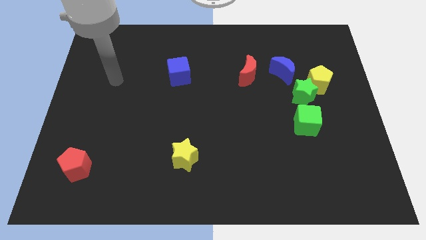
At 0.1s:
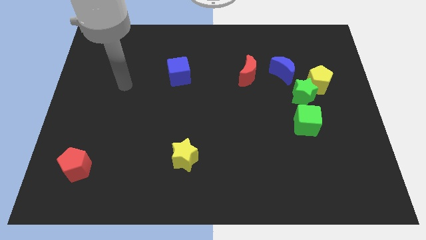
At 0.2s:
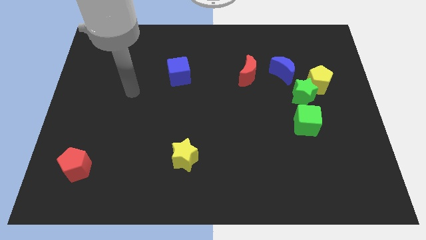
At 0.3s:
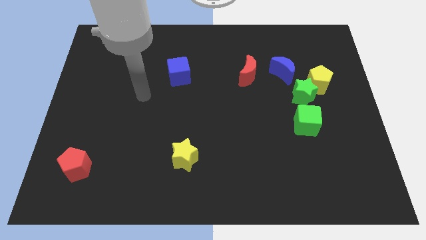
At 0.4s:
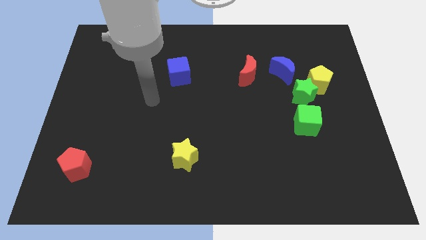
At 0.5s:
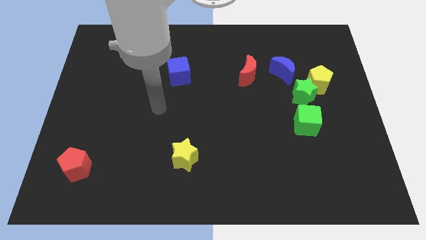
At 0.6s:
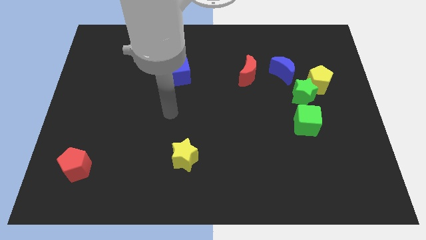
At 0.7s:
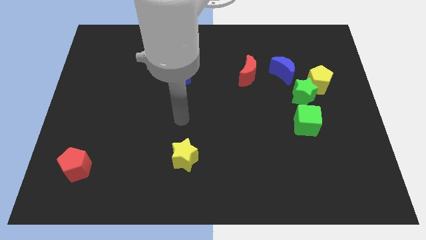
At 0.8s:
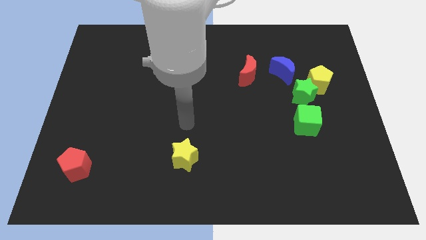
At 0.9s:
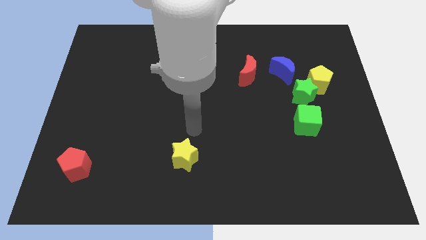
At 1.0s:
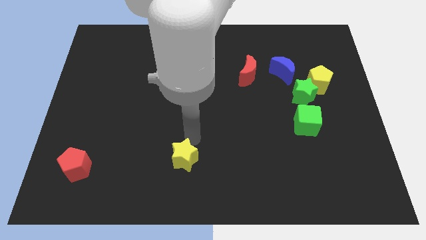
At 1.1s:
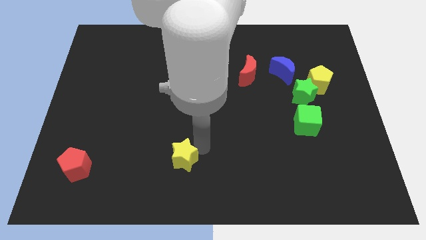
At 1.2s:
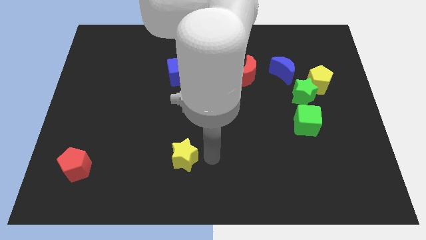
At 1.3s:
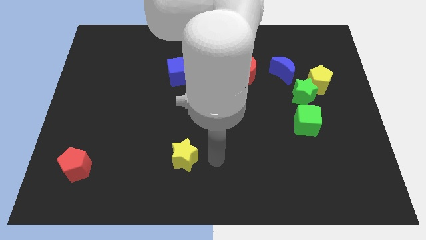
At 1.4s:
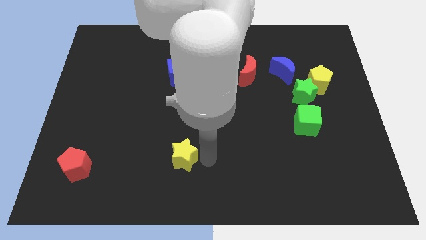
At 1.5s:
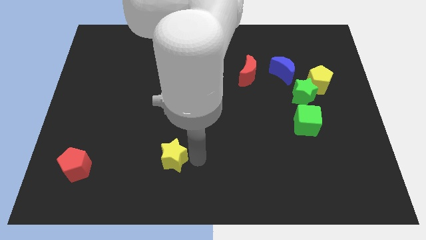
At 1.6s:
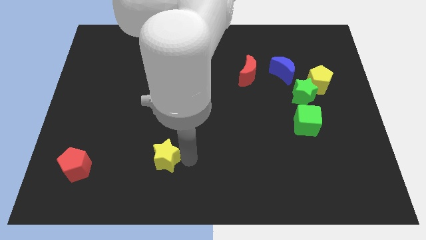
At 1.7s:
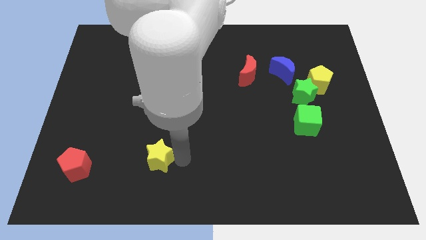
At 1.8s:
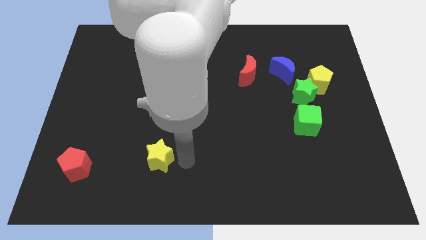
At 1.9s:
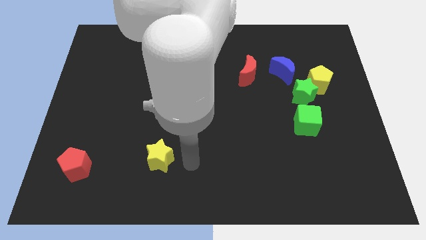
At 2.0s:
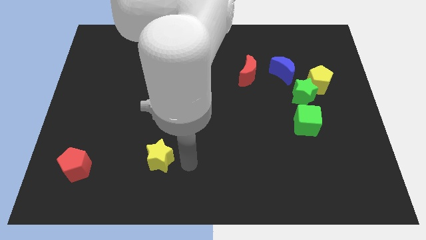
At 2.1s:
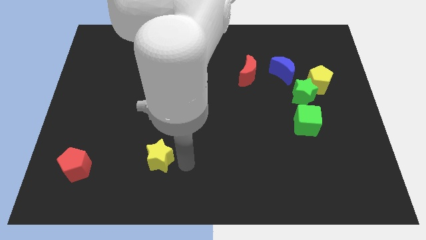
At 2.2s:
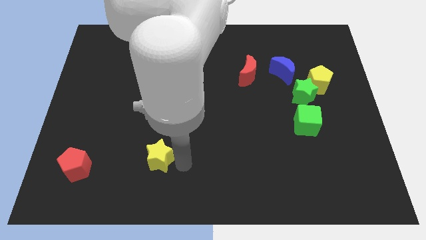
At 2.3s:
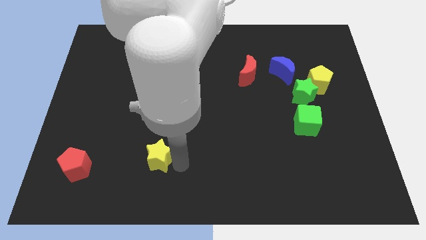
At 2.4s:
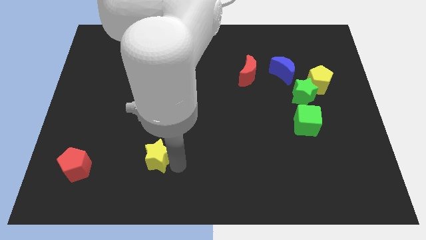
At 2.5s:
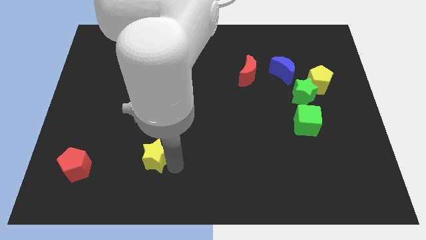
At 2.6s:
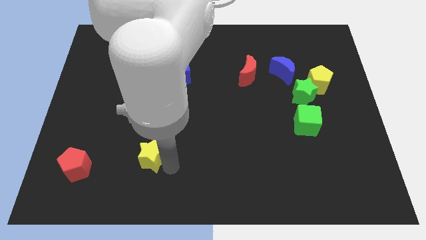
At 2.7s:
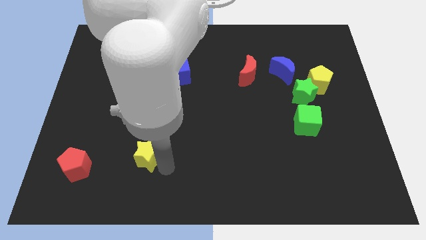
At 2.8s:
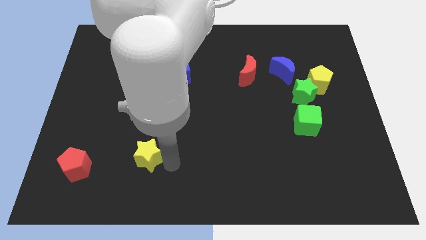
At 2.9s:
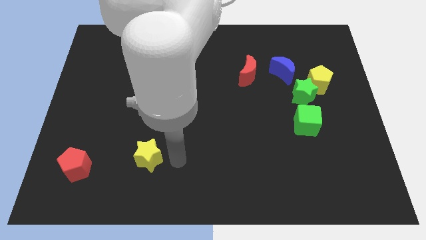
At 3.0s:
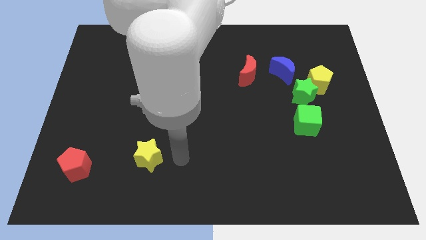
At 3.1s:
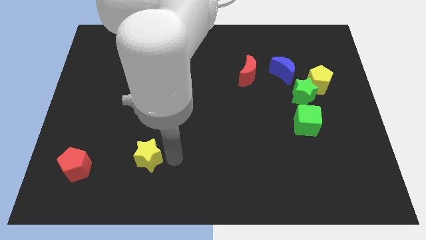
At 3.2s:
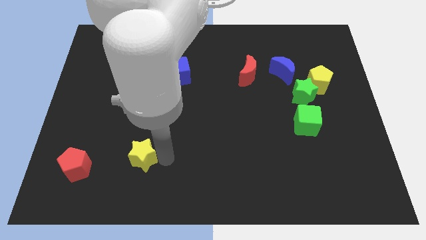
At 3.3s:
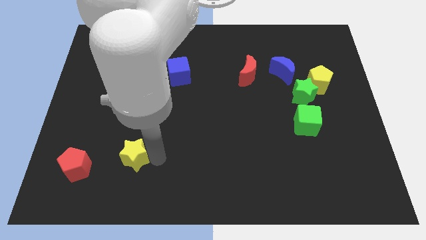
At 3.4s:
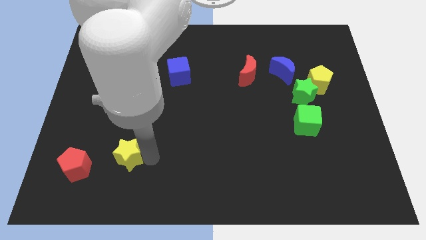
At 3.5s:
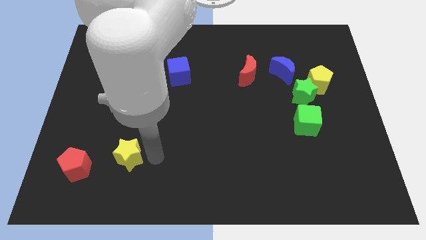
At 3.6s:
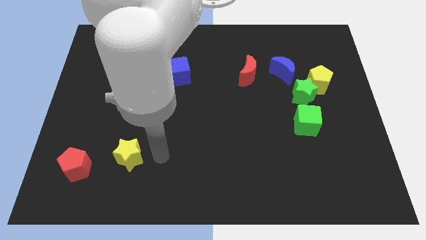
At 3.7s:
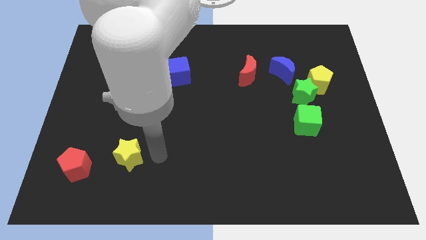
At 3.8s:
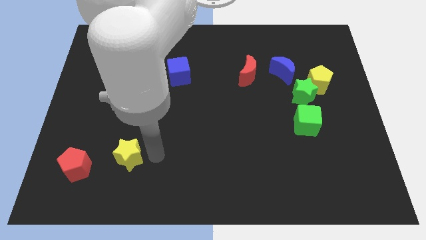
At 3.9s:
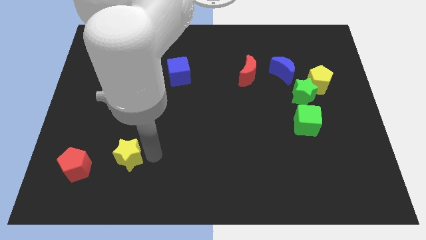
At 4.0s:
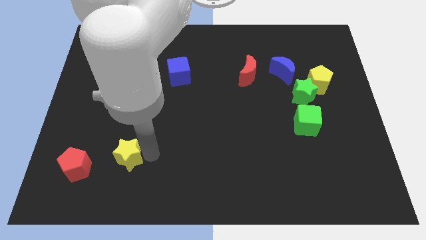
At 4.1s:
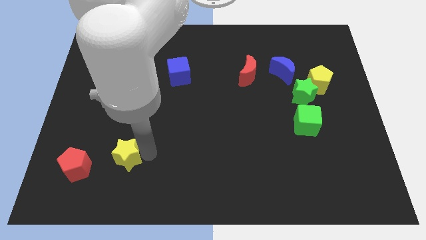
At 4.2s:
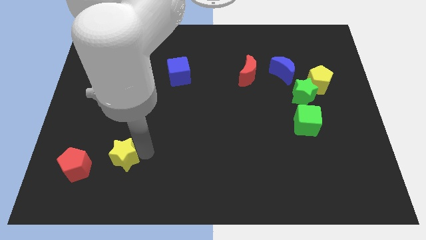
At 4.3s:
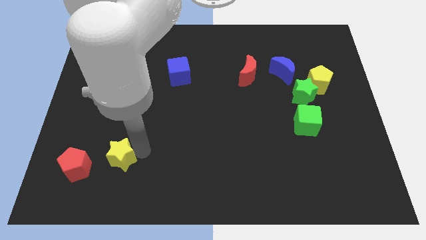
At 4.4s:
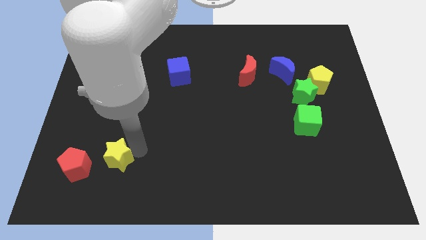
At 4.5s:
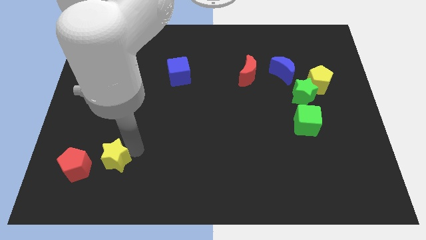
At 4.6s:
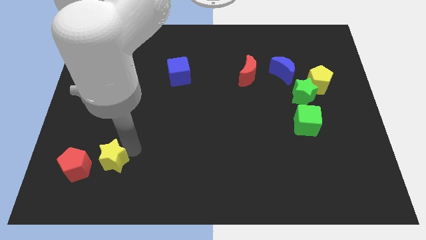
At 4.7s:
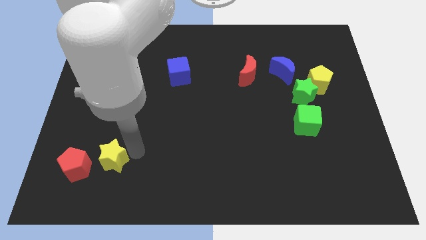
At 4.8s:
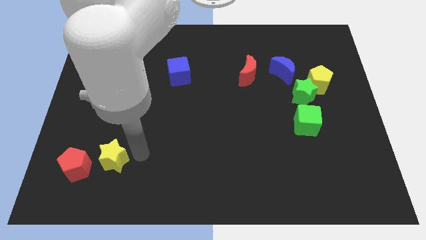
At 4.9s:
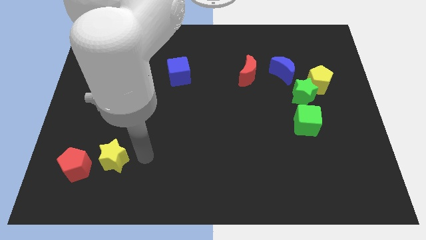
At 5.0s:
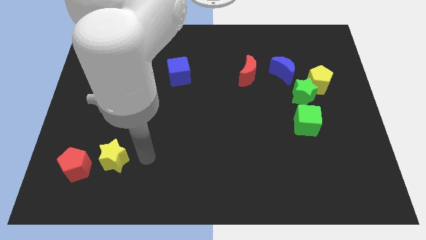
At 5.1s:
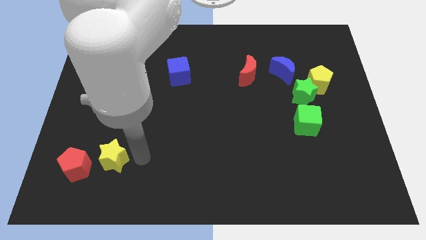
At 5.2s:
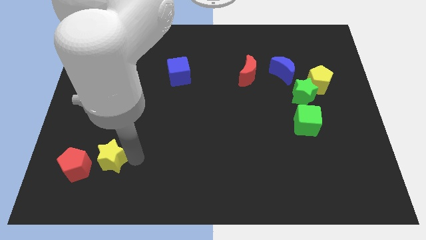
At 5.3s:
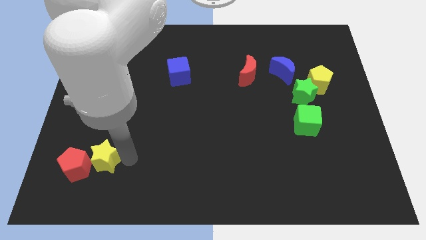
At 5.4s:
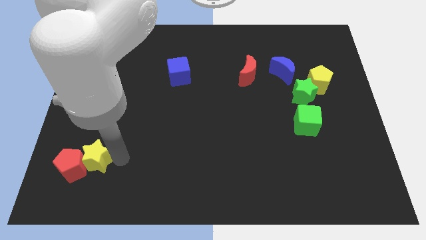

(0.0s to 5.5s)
move the yellow star close to the red pentagon

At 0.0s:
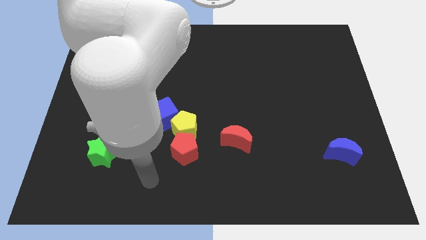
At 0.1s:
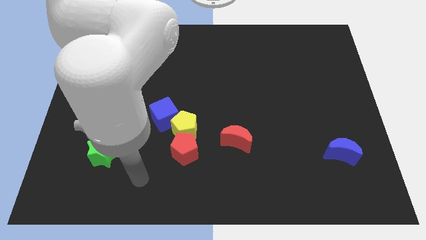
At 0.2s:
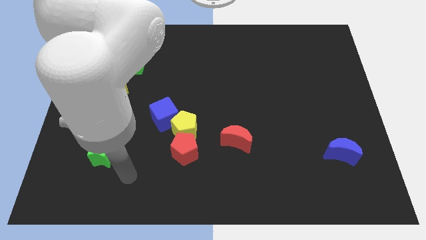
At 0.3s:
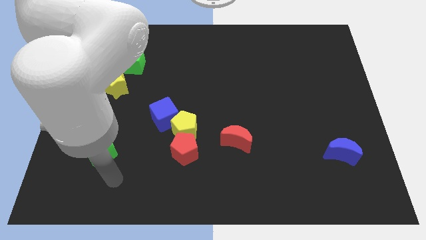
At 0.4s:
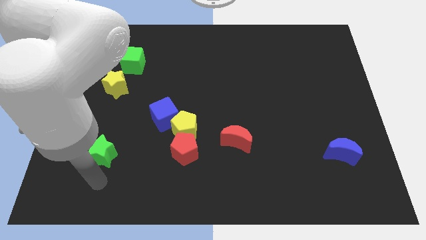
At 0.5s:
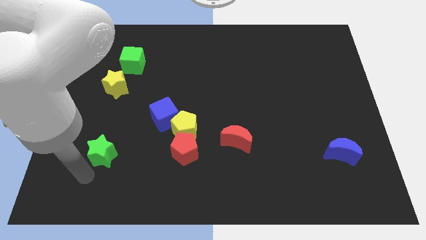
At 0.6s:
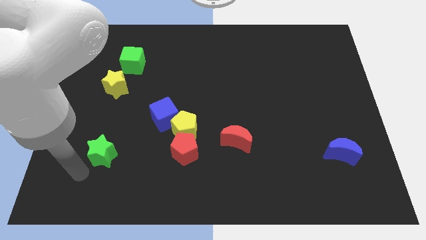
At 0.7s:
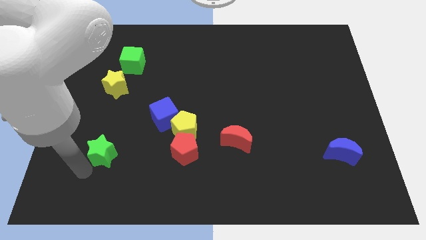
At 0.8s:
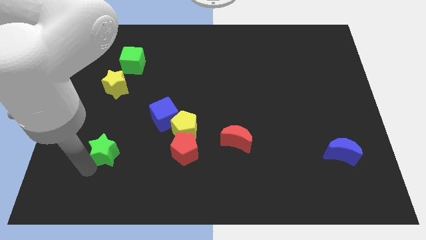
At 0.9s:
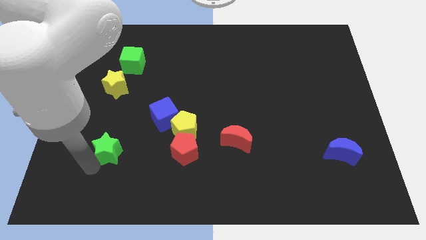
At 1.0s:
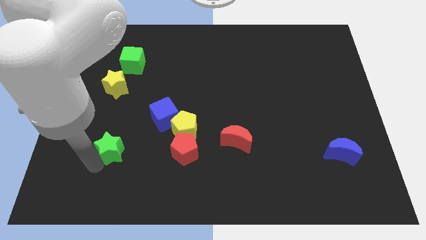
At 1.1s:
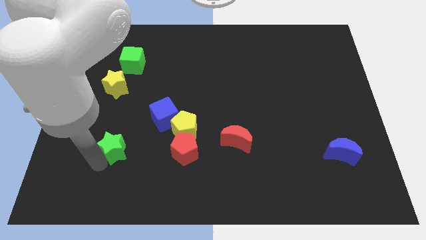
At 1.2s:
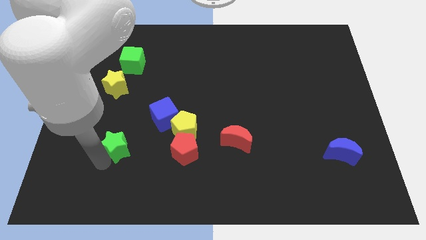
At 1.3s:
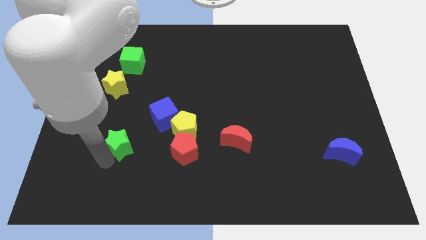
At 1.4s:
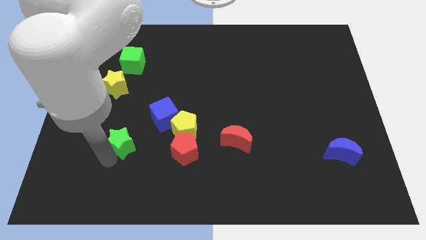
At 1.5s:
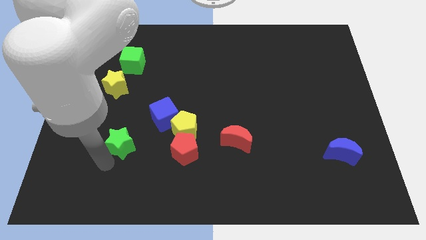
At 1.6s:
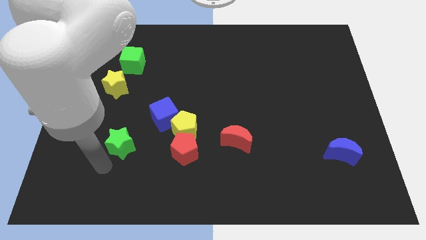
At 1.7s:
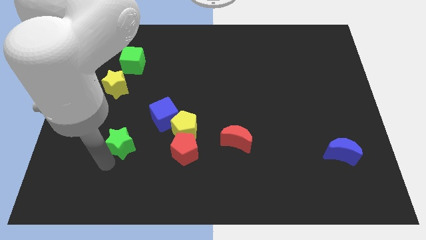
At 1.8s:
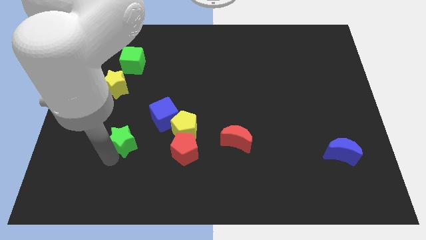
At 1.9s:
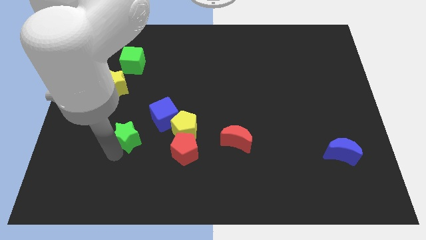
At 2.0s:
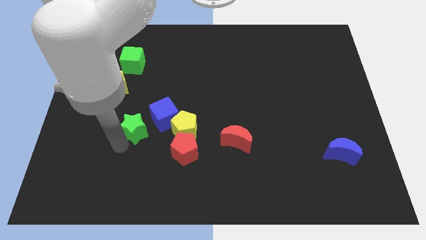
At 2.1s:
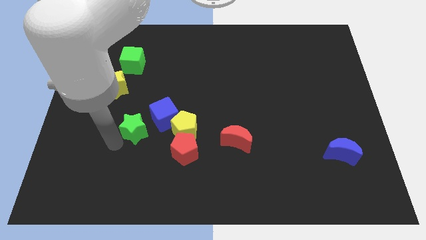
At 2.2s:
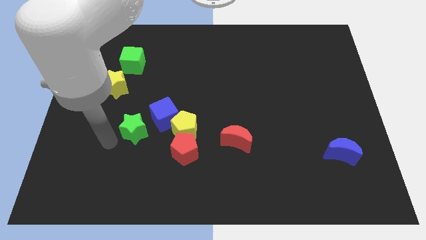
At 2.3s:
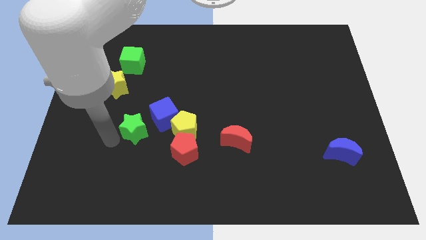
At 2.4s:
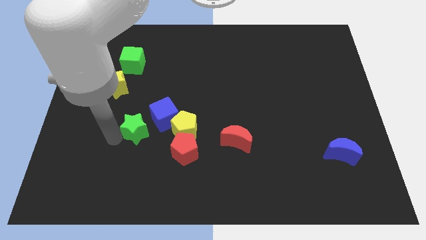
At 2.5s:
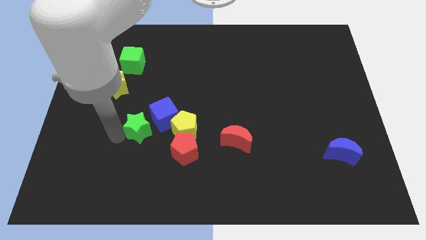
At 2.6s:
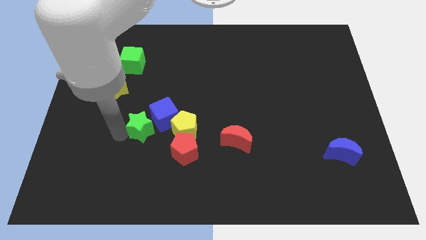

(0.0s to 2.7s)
move the green star to the blue cube
